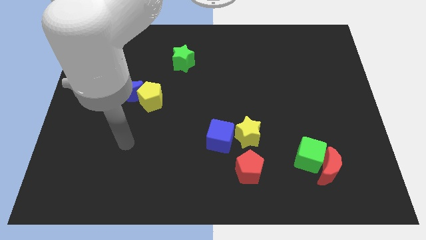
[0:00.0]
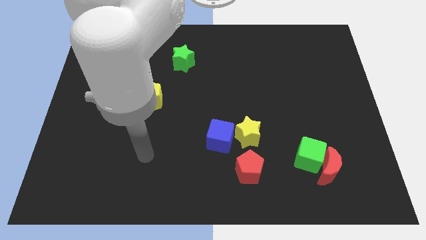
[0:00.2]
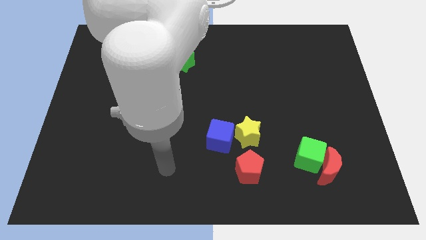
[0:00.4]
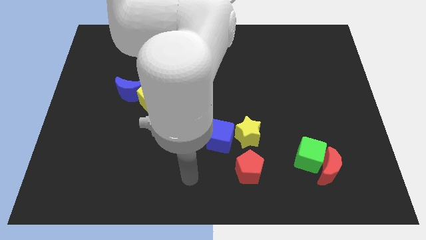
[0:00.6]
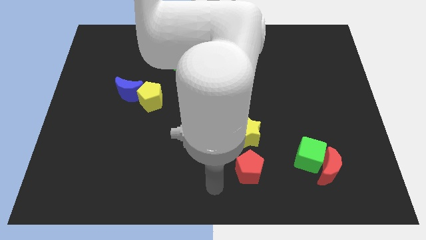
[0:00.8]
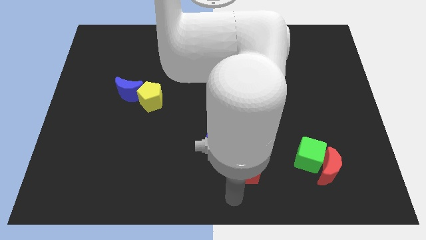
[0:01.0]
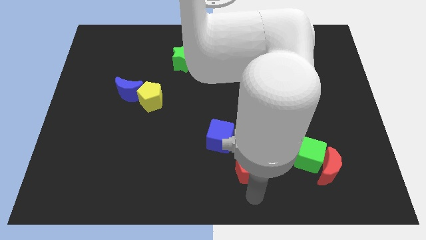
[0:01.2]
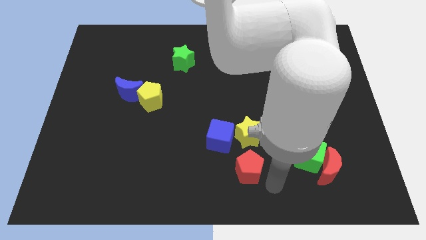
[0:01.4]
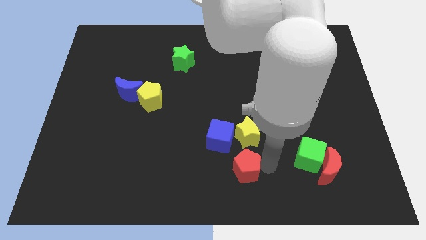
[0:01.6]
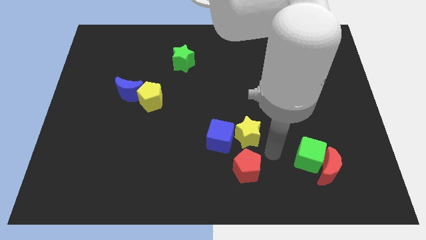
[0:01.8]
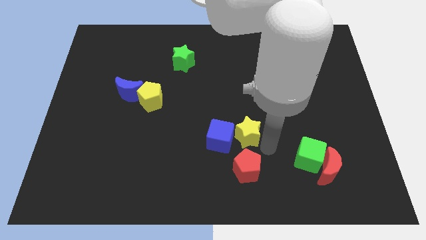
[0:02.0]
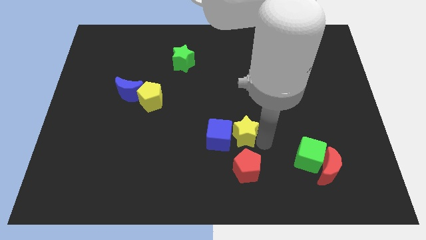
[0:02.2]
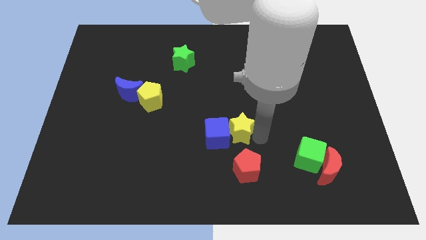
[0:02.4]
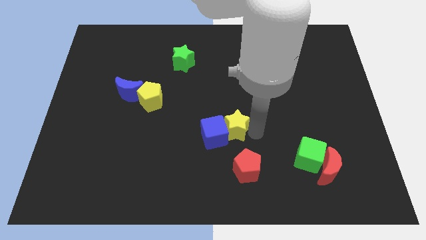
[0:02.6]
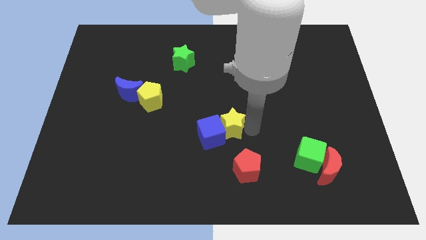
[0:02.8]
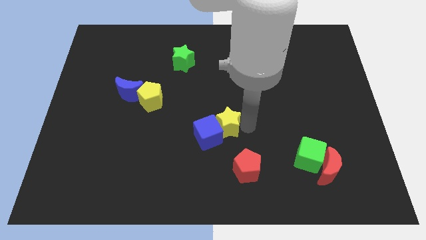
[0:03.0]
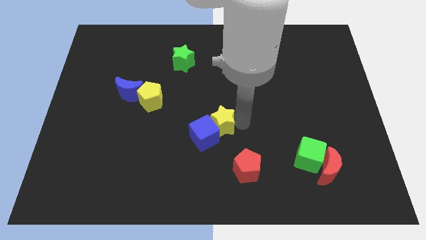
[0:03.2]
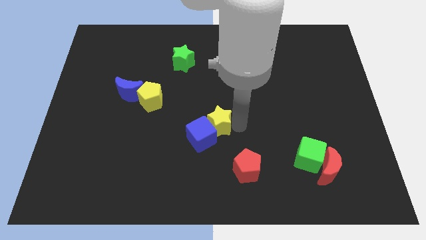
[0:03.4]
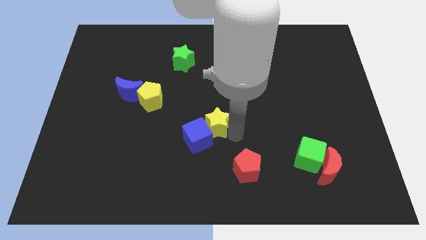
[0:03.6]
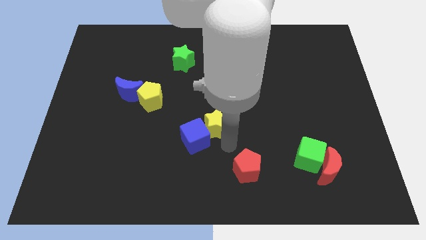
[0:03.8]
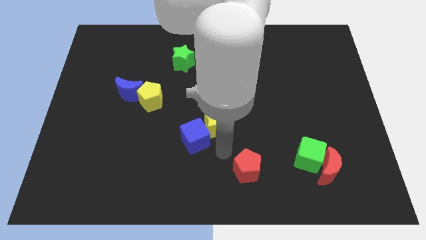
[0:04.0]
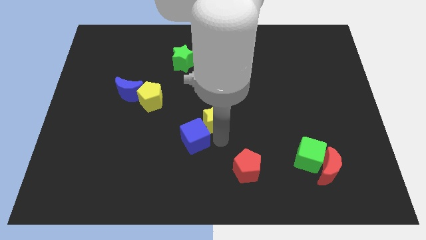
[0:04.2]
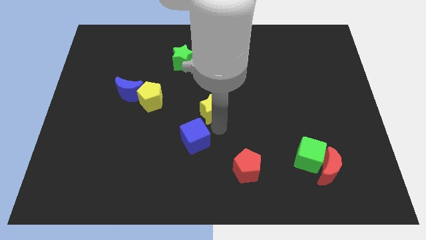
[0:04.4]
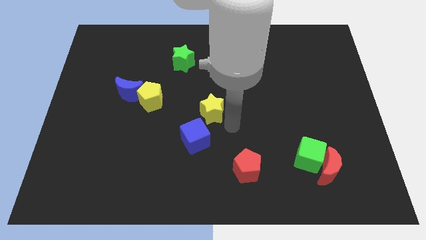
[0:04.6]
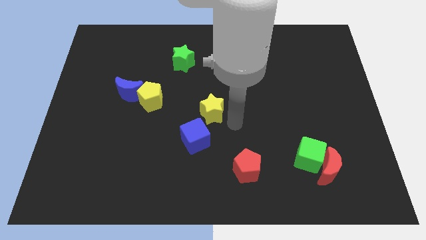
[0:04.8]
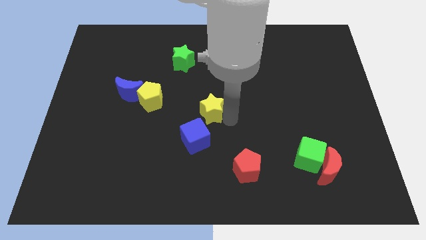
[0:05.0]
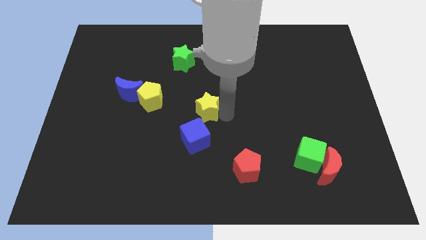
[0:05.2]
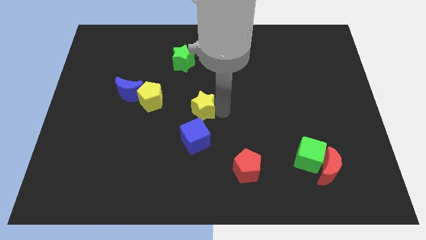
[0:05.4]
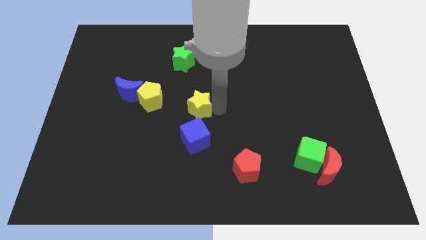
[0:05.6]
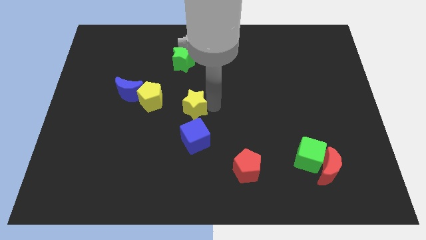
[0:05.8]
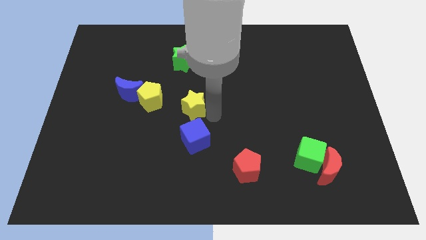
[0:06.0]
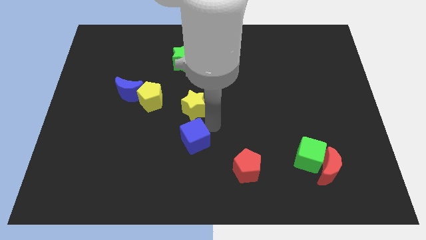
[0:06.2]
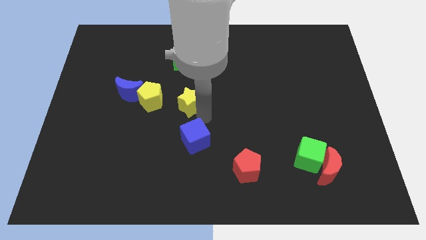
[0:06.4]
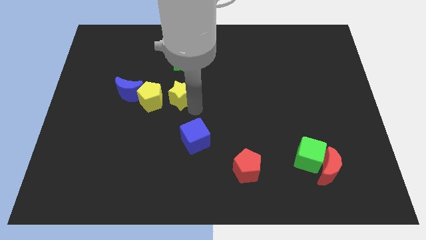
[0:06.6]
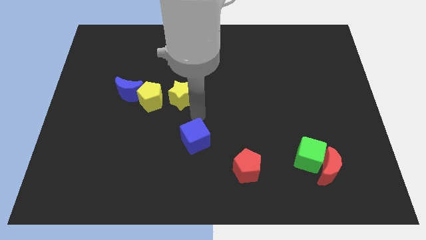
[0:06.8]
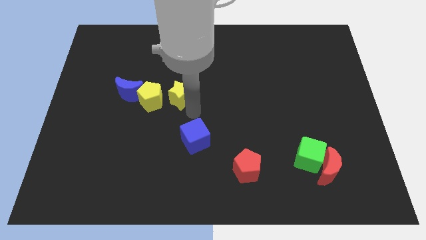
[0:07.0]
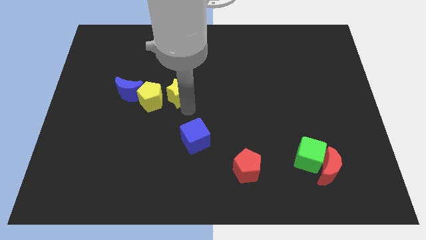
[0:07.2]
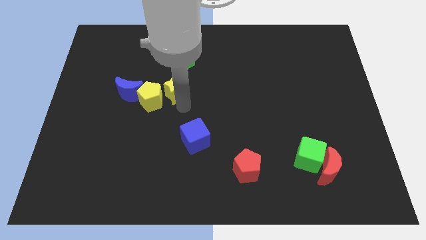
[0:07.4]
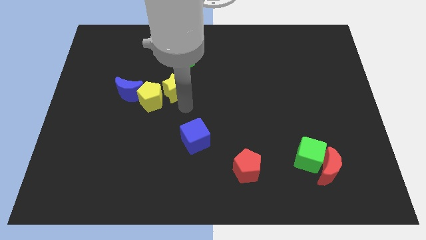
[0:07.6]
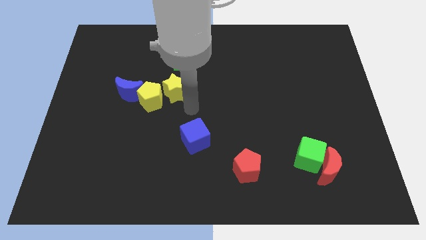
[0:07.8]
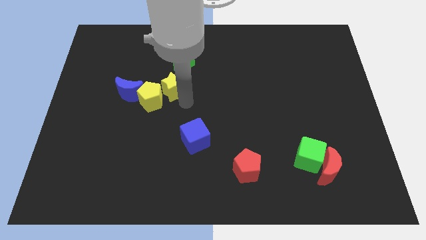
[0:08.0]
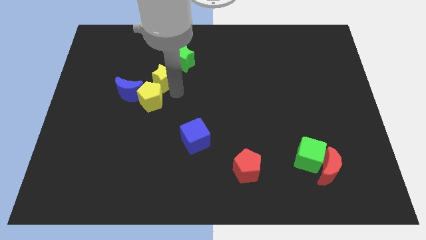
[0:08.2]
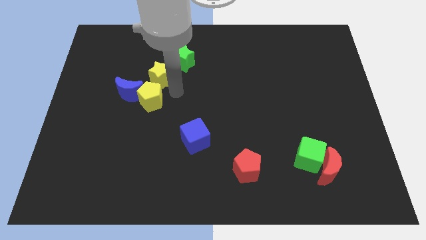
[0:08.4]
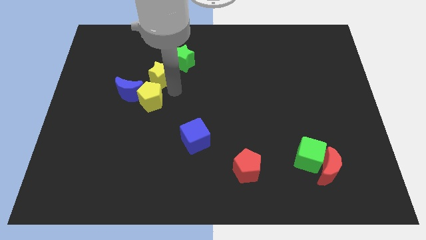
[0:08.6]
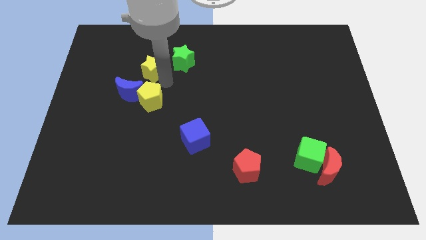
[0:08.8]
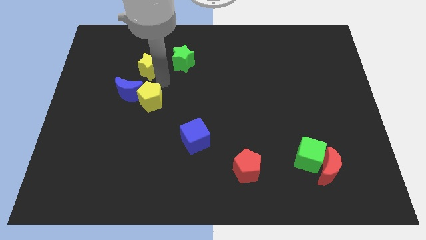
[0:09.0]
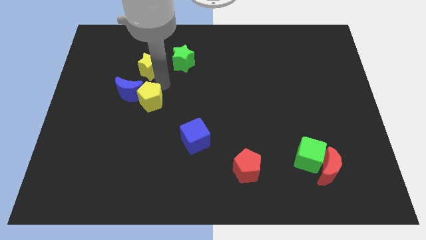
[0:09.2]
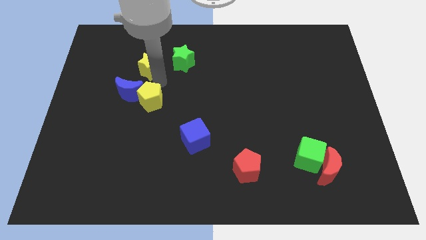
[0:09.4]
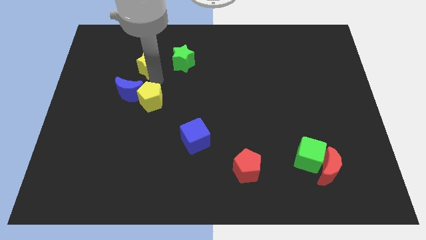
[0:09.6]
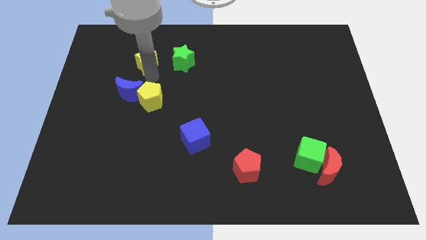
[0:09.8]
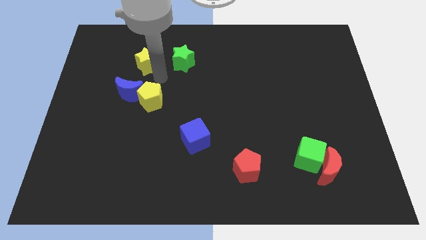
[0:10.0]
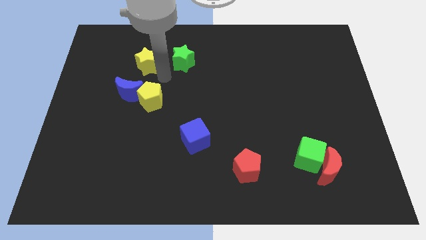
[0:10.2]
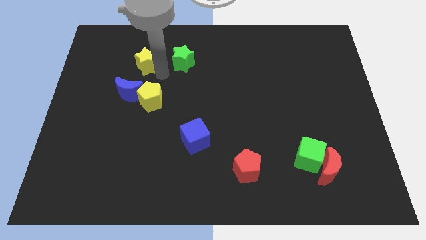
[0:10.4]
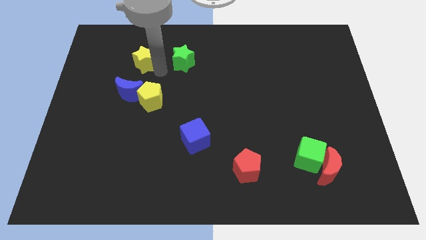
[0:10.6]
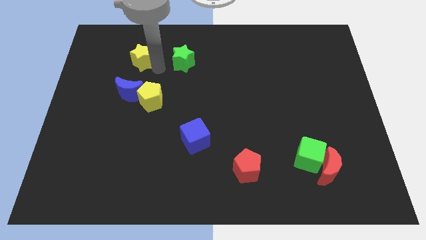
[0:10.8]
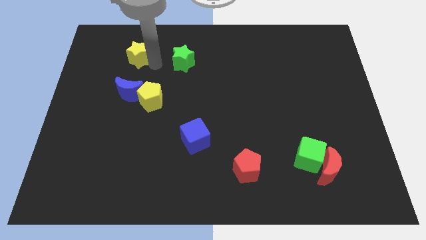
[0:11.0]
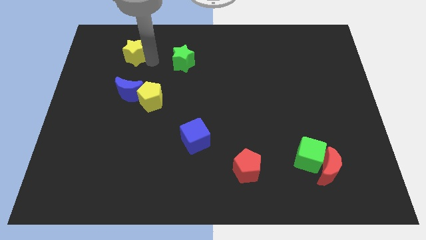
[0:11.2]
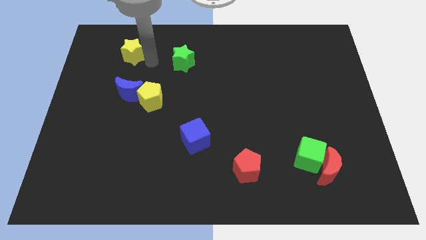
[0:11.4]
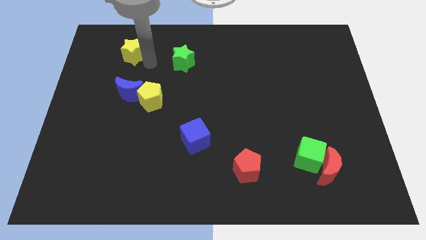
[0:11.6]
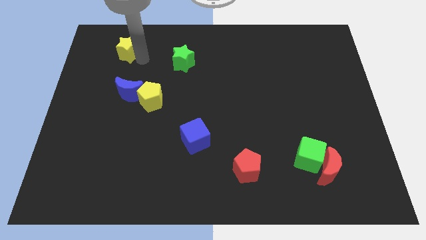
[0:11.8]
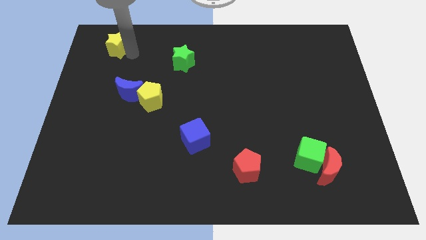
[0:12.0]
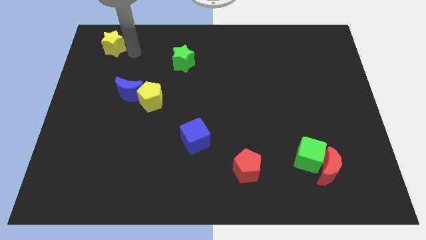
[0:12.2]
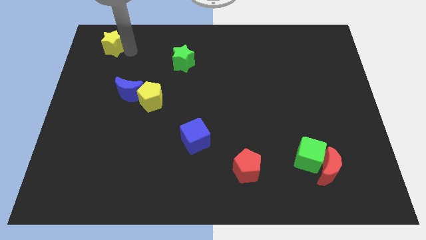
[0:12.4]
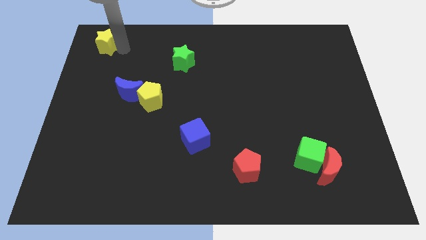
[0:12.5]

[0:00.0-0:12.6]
slide the yellow star to the upper left corner

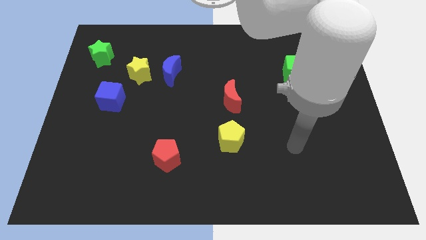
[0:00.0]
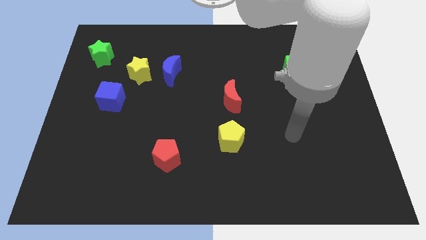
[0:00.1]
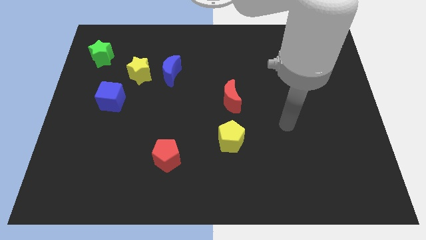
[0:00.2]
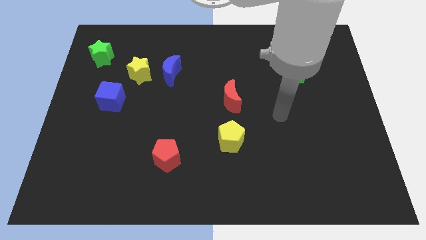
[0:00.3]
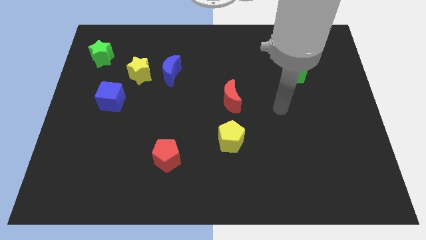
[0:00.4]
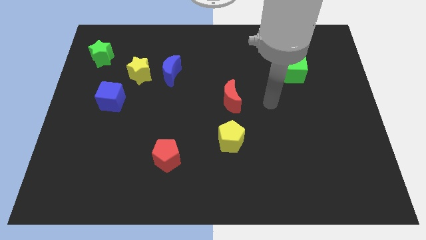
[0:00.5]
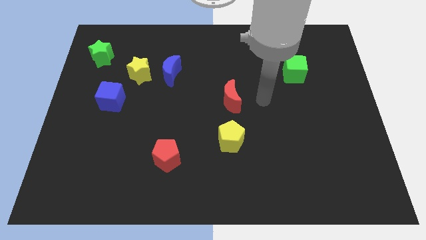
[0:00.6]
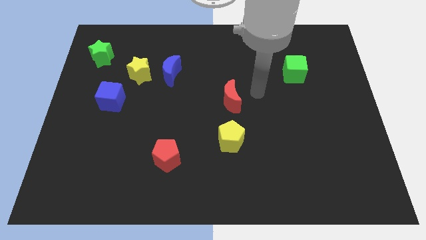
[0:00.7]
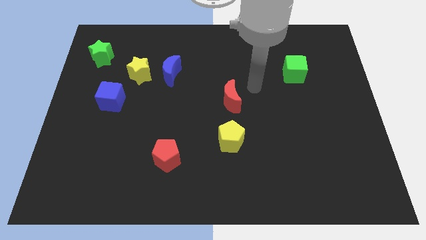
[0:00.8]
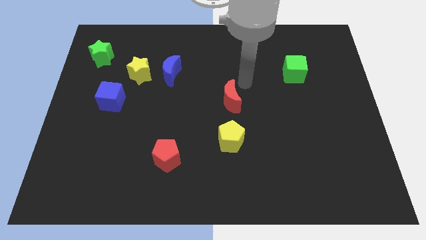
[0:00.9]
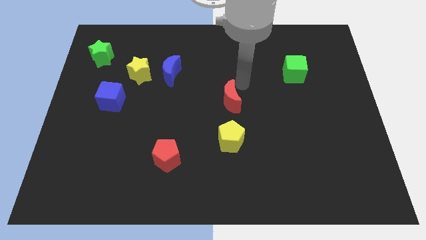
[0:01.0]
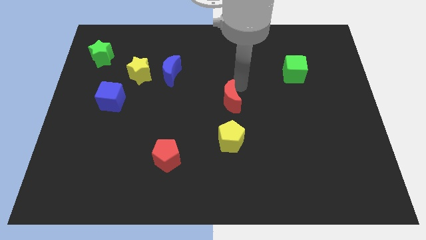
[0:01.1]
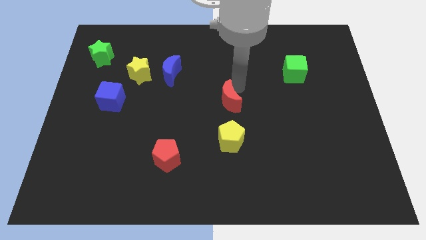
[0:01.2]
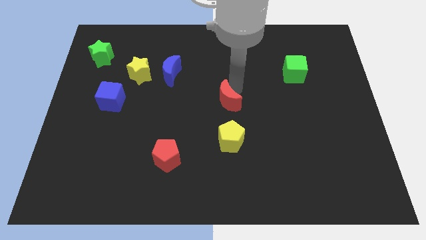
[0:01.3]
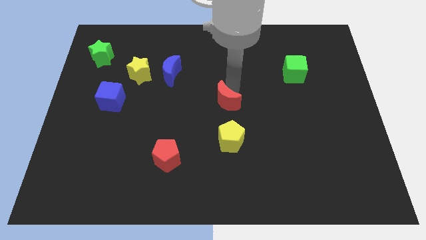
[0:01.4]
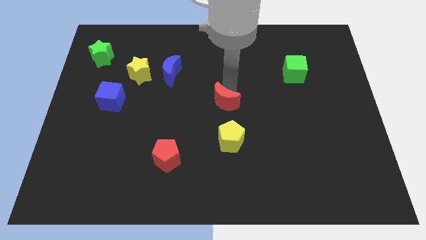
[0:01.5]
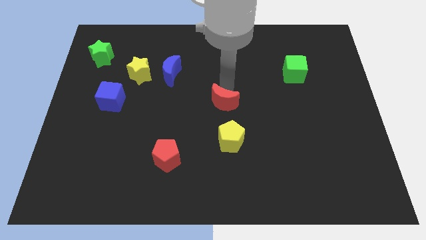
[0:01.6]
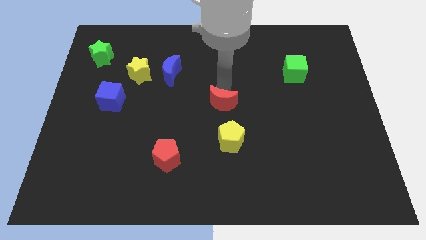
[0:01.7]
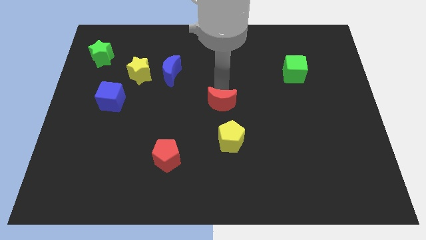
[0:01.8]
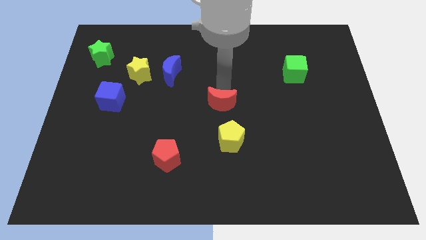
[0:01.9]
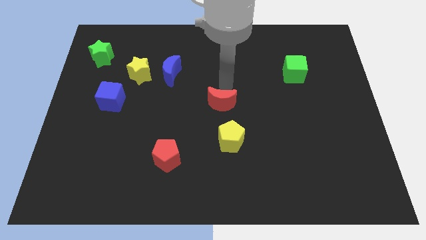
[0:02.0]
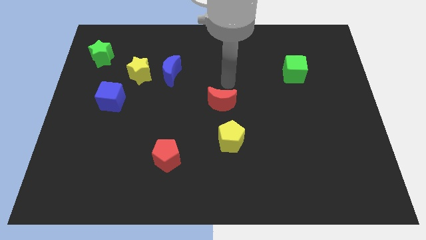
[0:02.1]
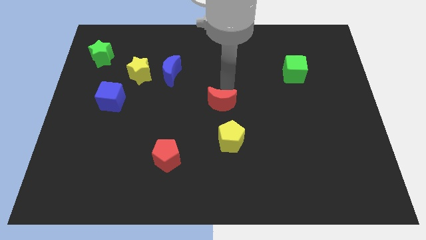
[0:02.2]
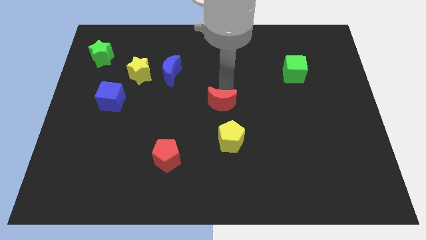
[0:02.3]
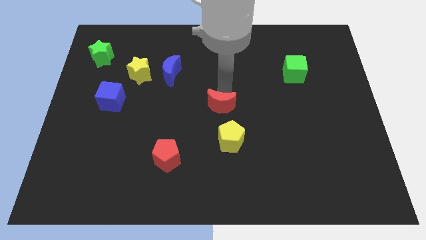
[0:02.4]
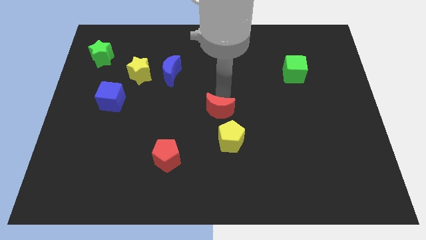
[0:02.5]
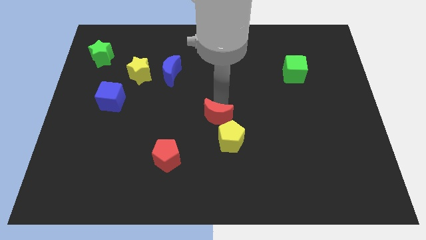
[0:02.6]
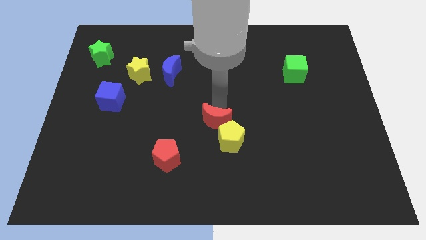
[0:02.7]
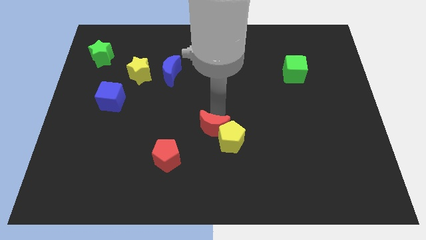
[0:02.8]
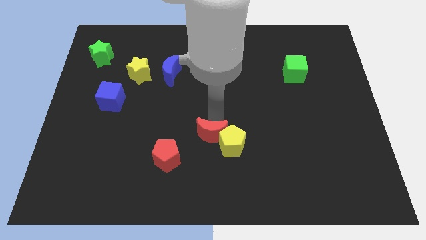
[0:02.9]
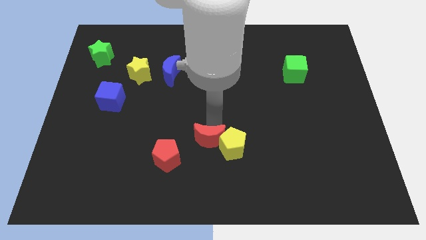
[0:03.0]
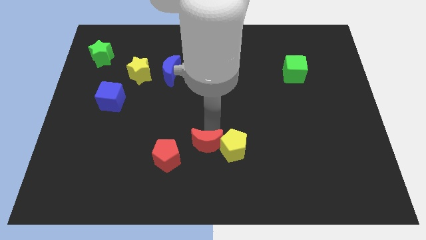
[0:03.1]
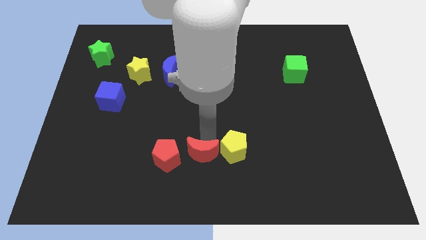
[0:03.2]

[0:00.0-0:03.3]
move the red moon to the bottom side
